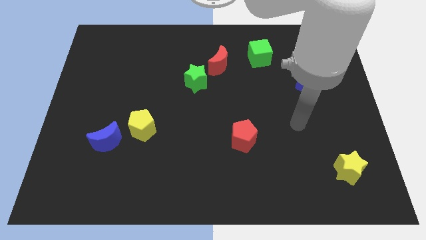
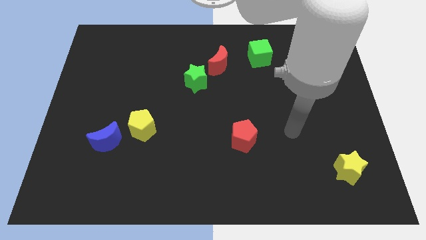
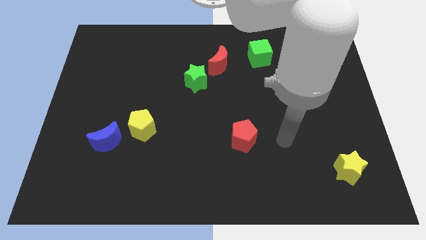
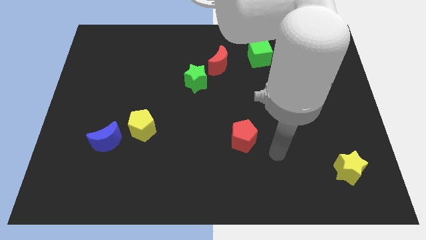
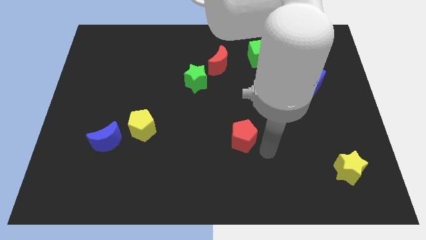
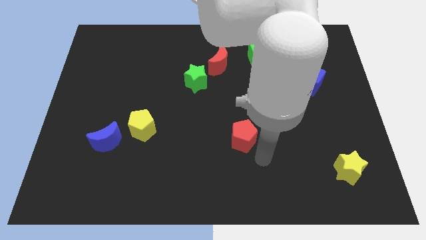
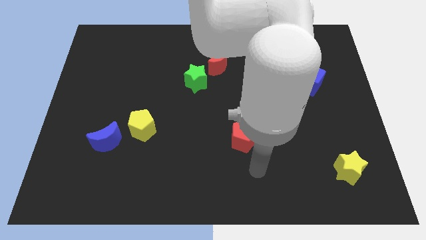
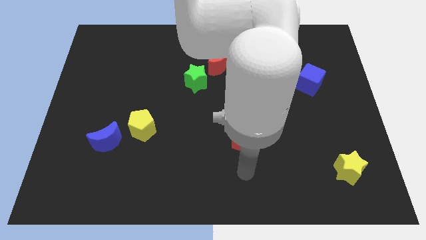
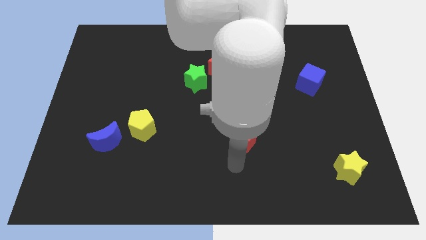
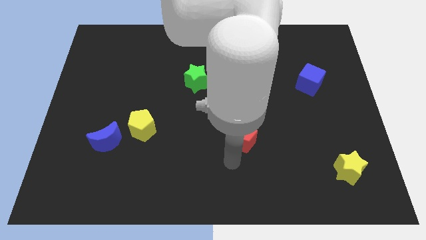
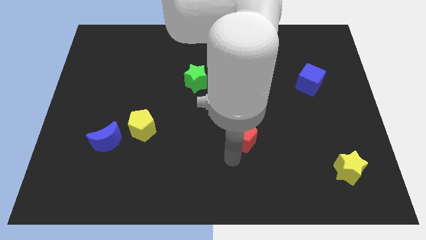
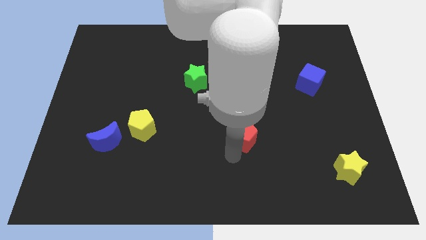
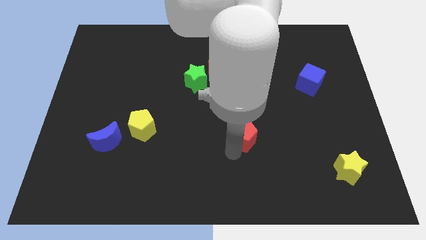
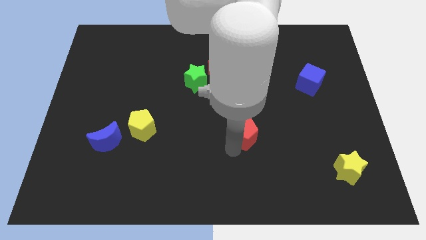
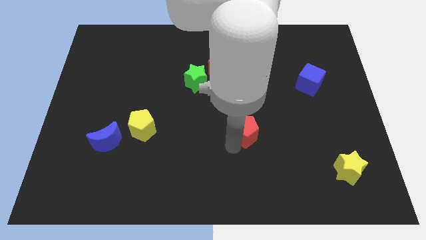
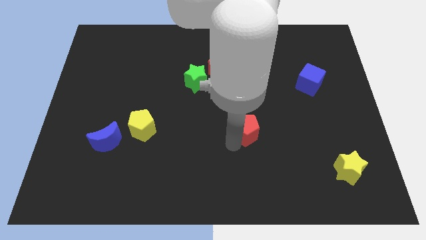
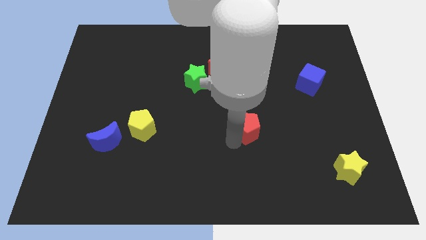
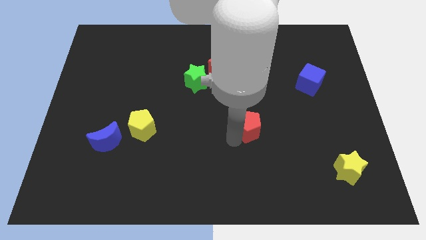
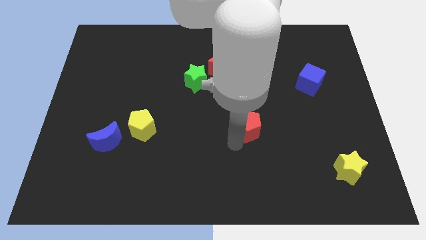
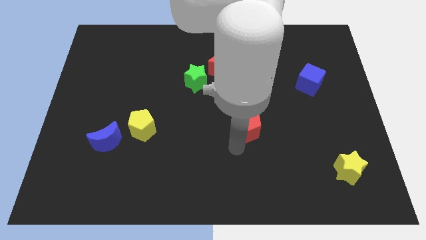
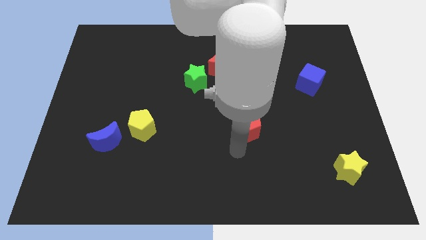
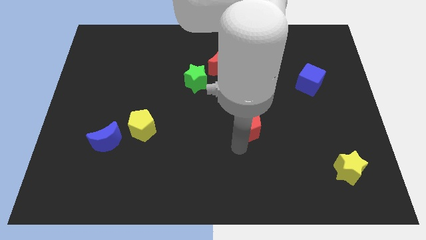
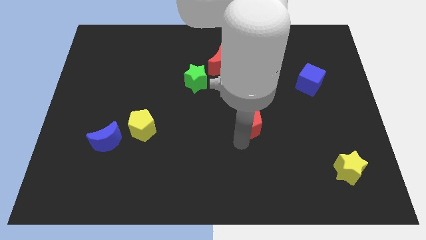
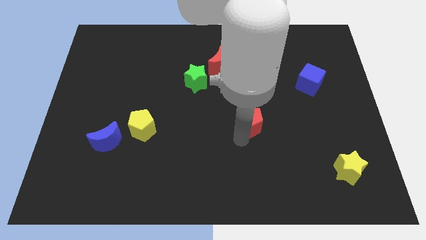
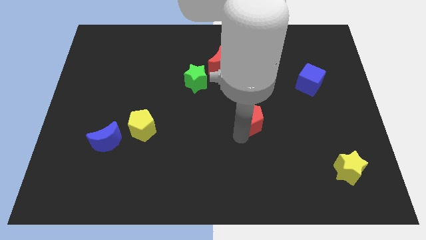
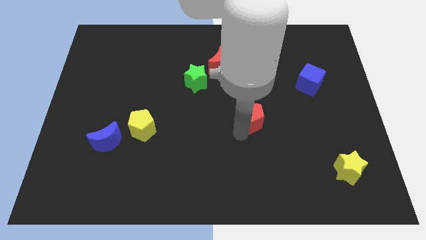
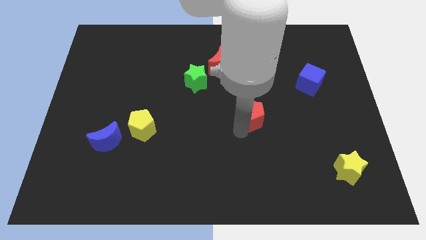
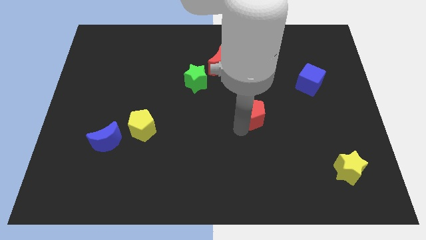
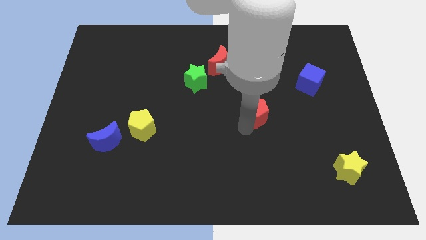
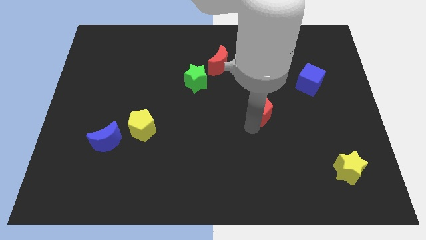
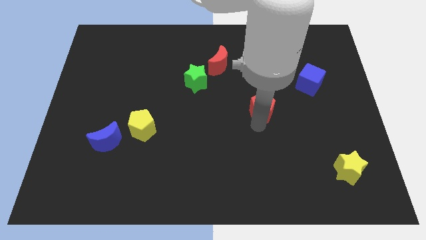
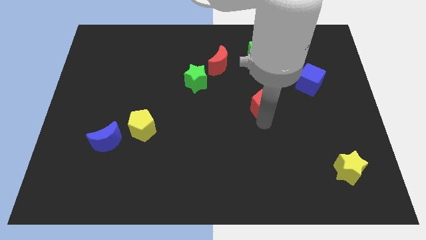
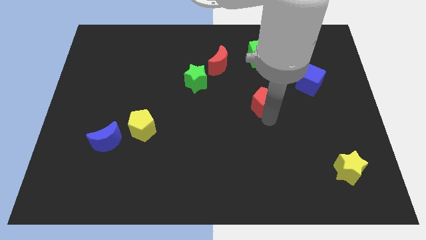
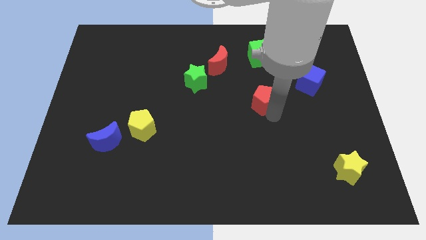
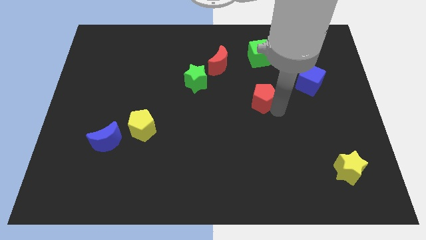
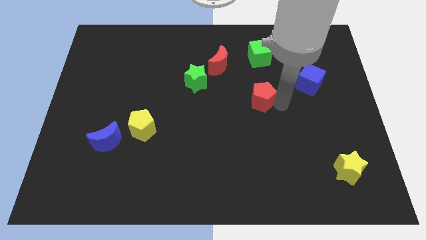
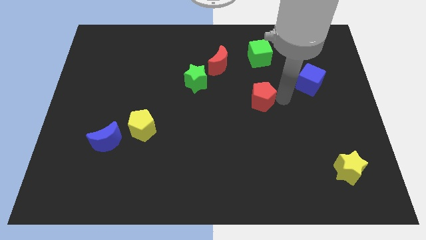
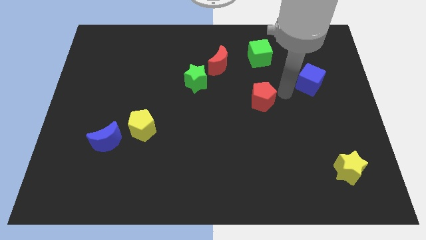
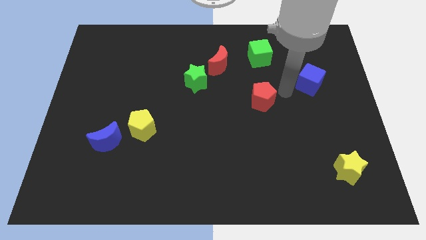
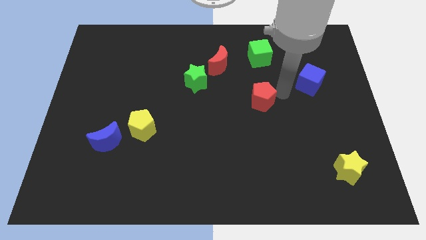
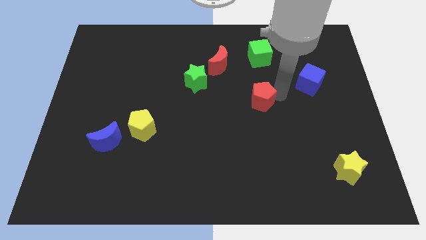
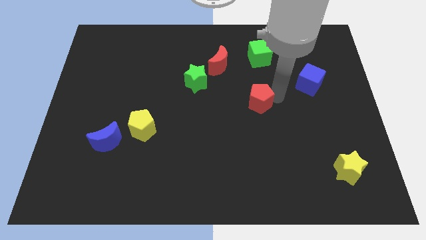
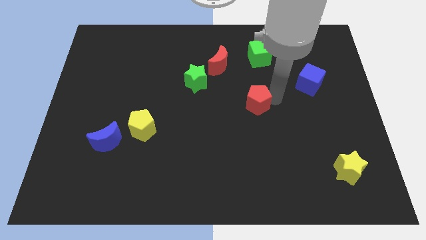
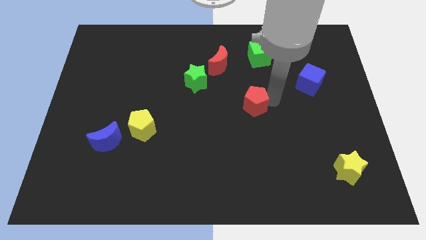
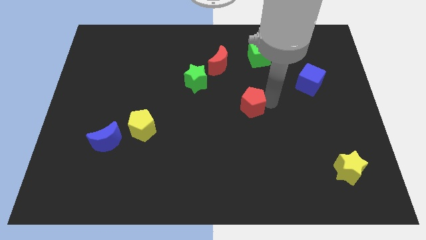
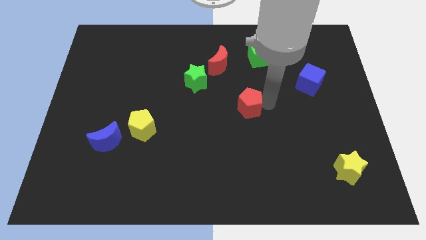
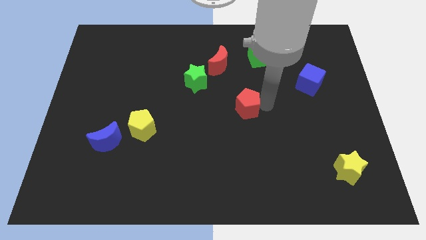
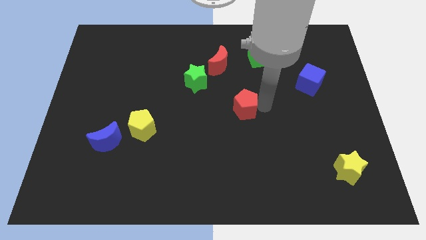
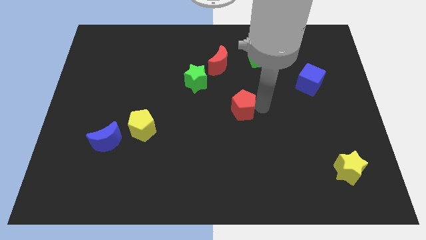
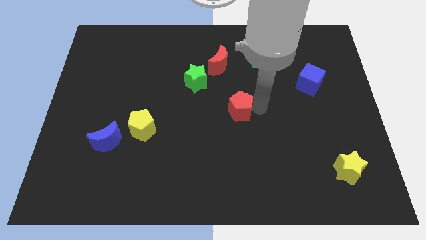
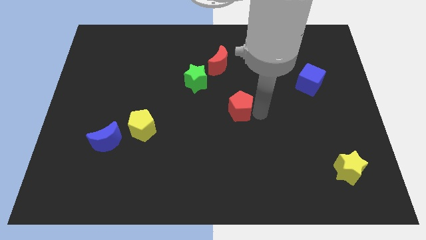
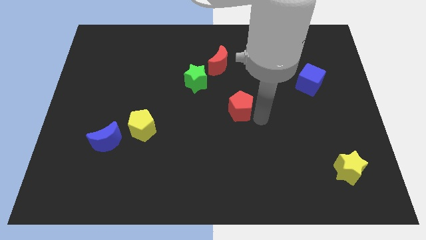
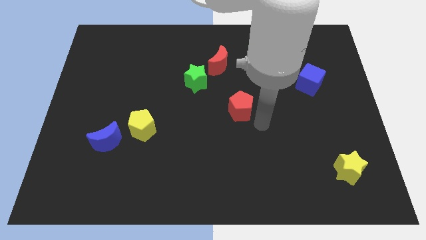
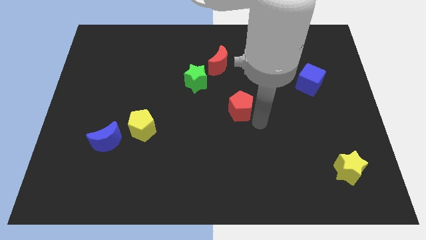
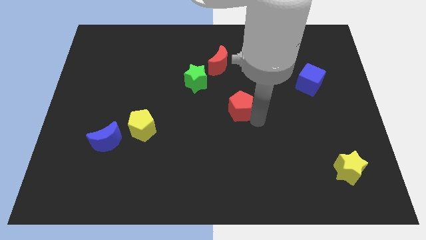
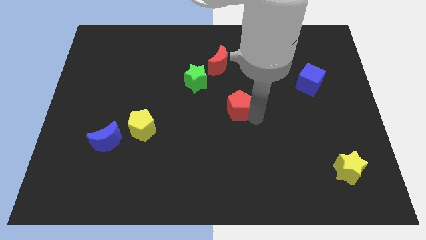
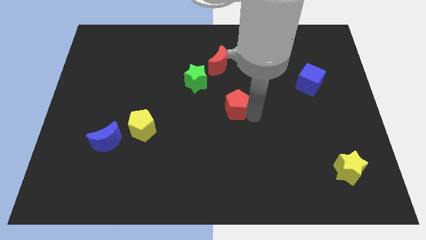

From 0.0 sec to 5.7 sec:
put the red pentagon to the bottom side of the red moon

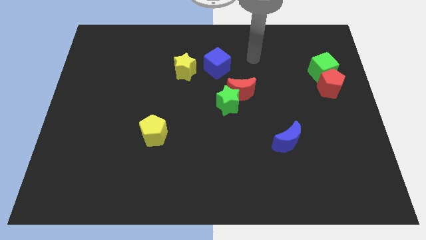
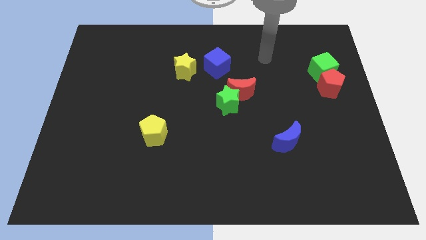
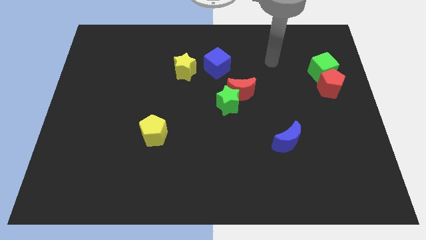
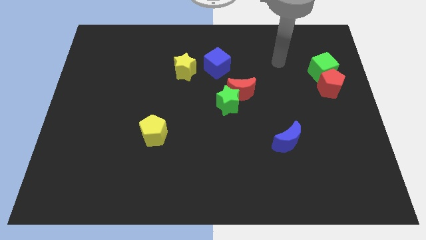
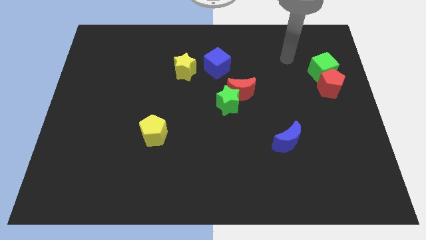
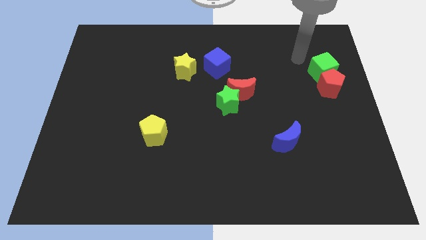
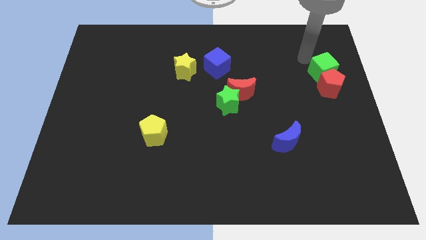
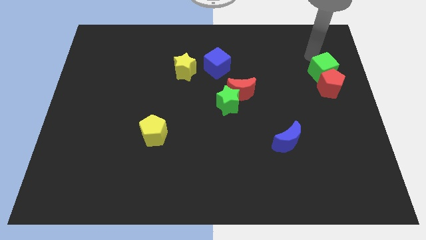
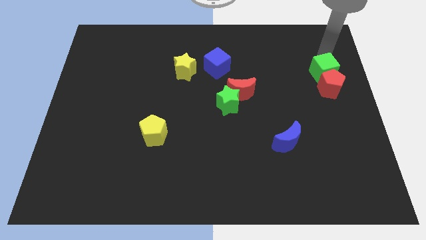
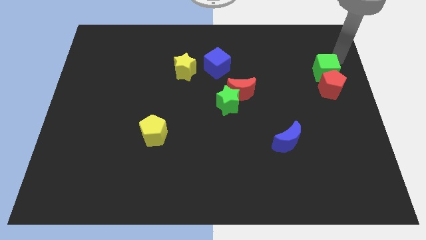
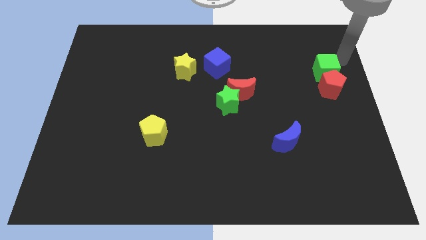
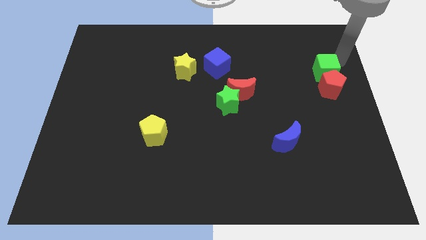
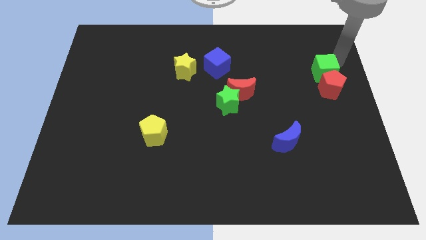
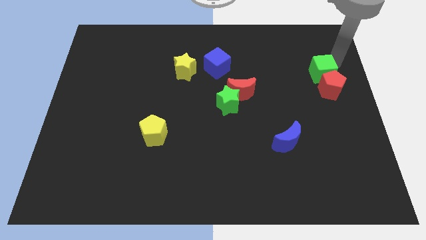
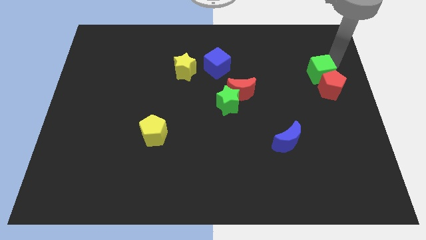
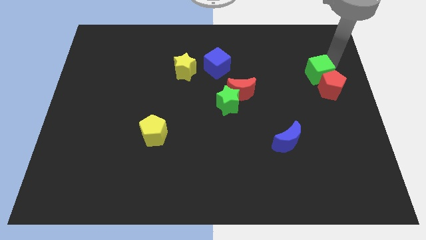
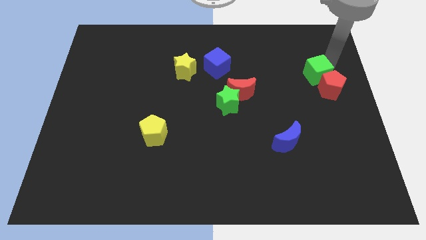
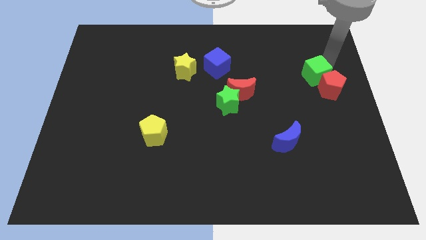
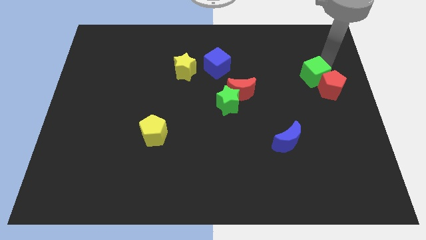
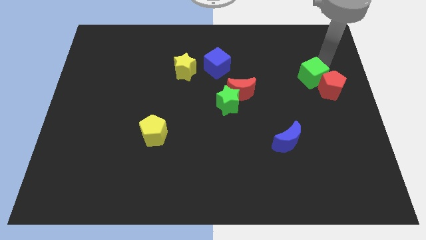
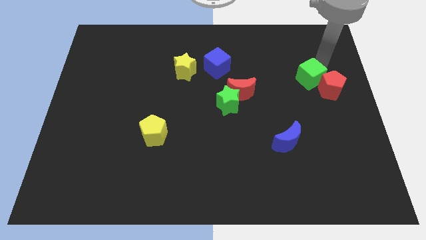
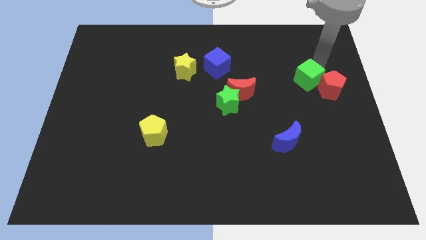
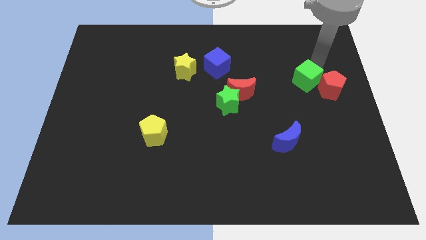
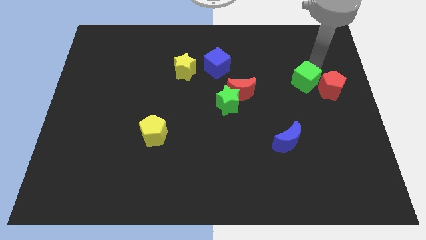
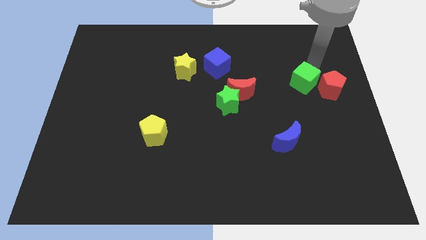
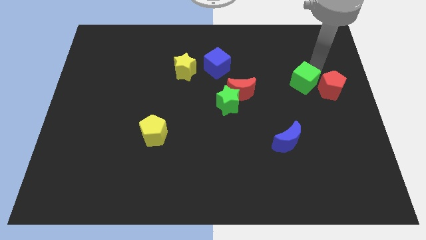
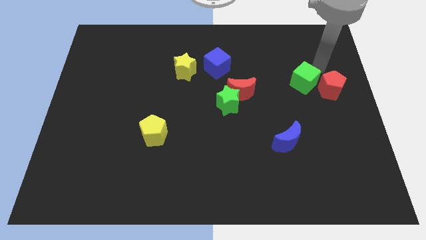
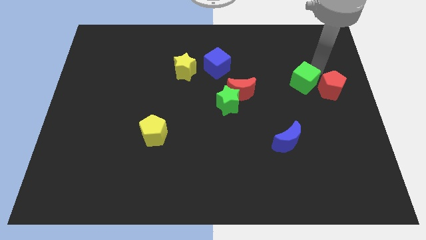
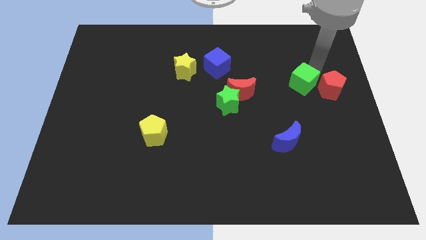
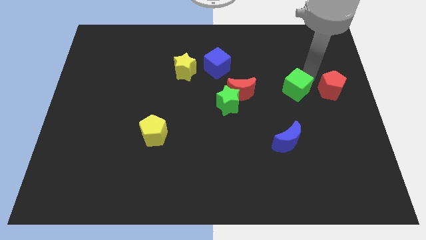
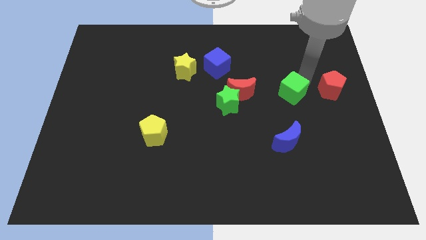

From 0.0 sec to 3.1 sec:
move the green cube above the blue moon
